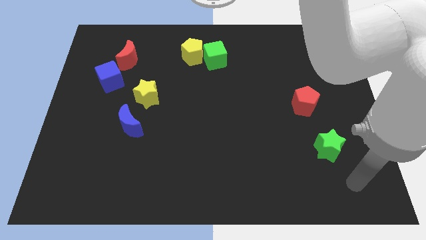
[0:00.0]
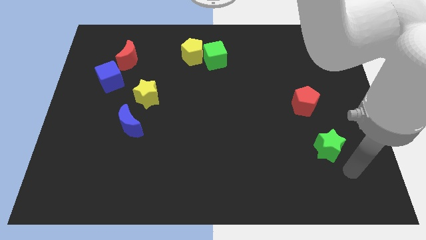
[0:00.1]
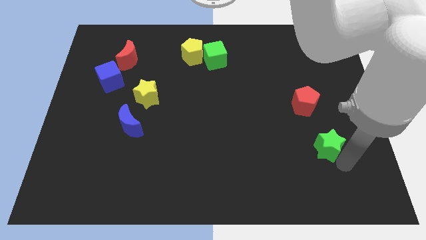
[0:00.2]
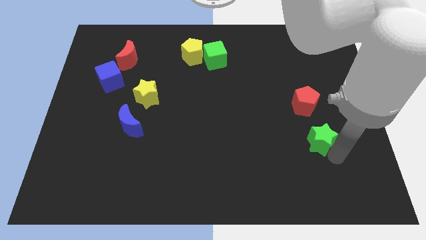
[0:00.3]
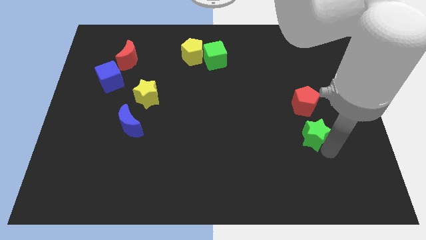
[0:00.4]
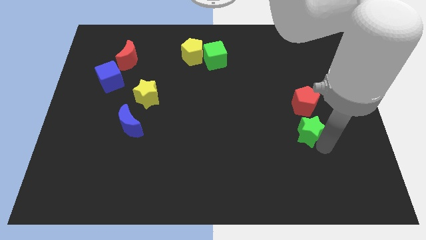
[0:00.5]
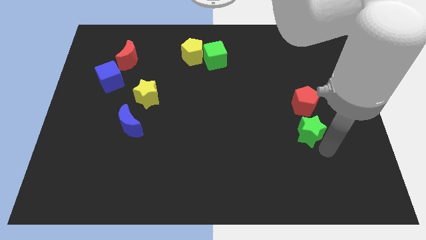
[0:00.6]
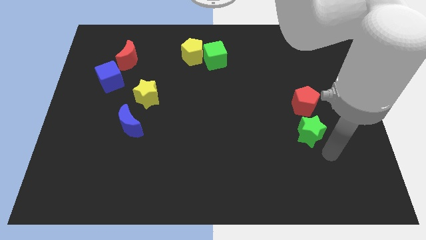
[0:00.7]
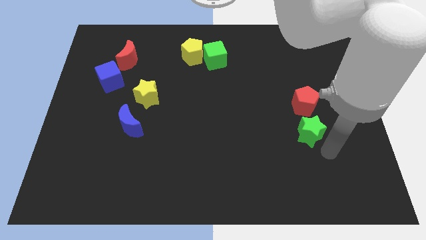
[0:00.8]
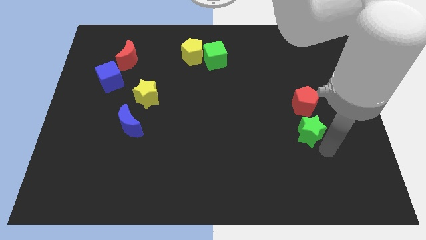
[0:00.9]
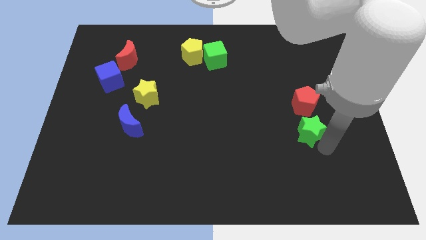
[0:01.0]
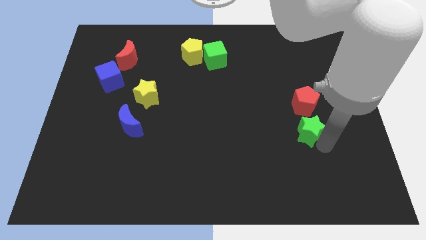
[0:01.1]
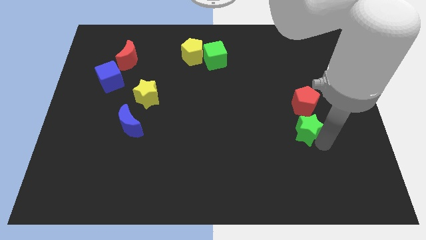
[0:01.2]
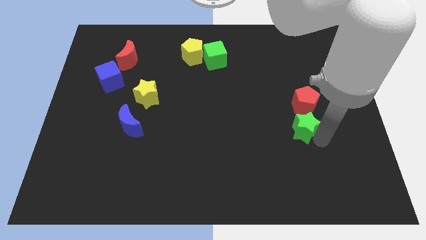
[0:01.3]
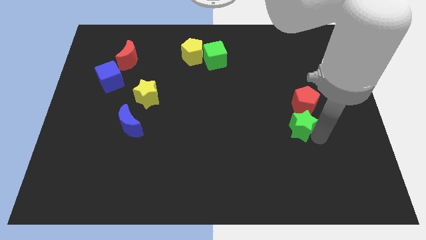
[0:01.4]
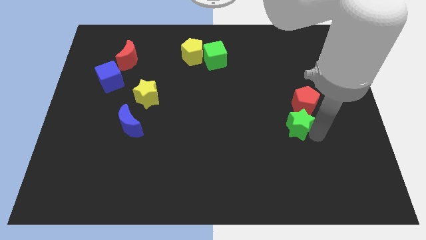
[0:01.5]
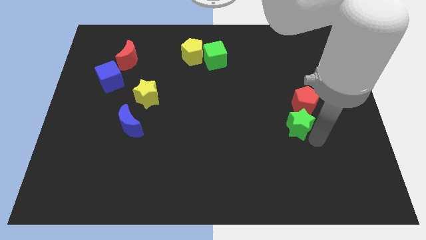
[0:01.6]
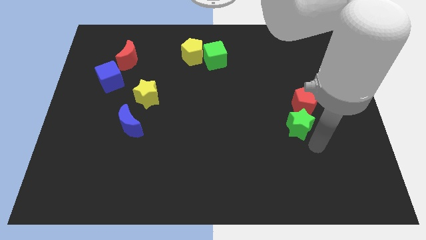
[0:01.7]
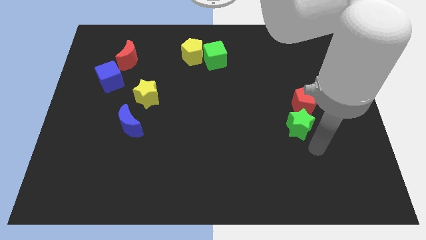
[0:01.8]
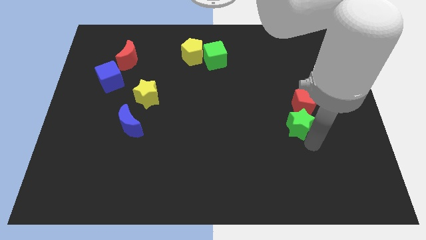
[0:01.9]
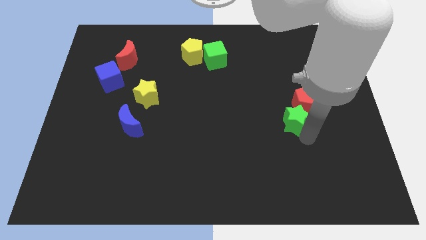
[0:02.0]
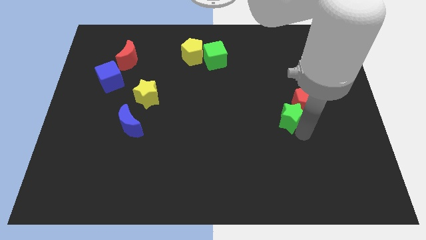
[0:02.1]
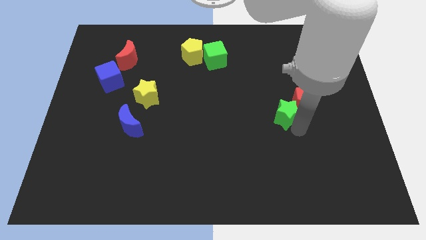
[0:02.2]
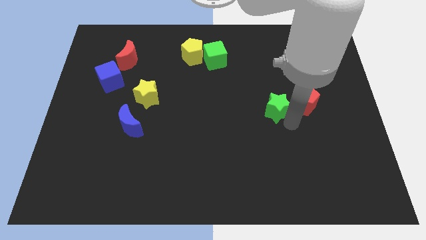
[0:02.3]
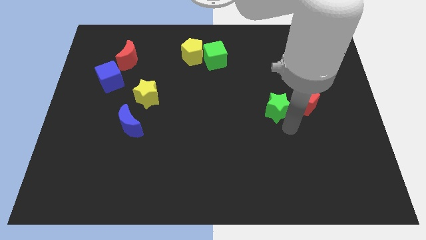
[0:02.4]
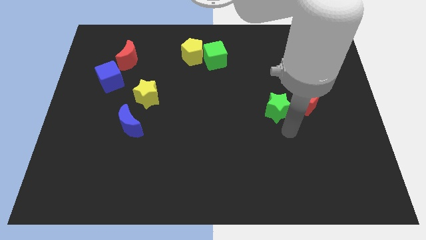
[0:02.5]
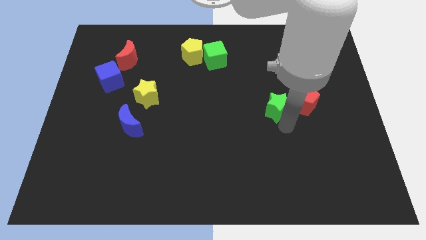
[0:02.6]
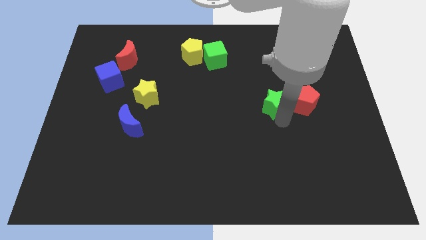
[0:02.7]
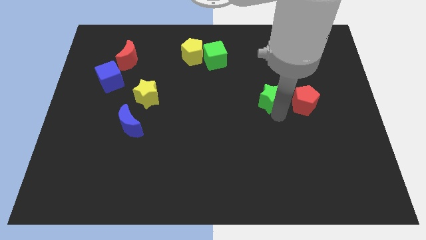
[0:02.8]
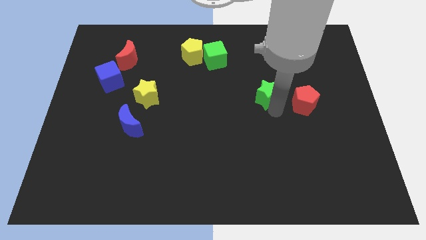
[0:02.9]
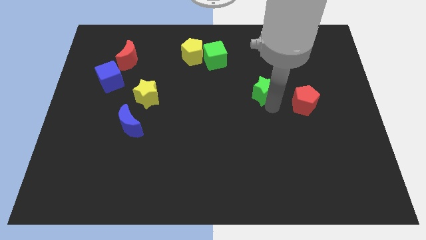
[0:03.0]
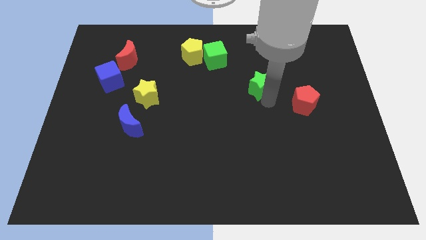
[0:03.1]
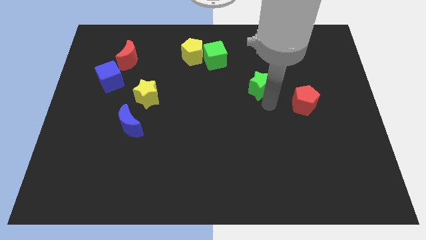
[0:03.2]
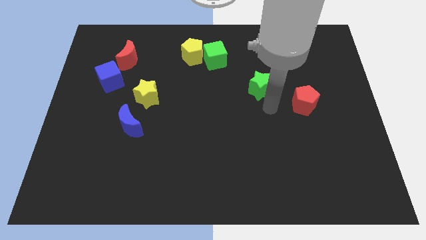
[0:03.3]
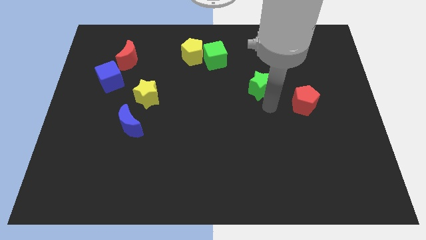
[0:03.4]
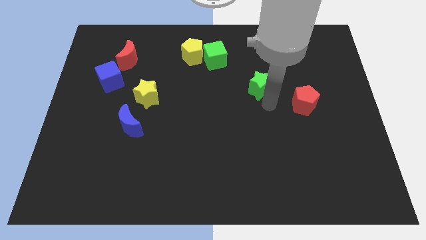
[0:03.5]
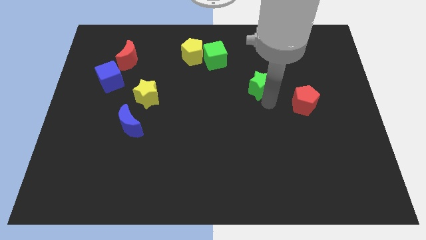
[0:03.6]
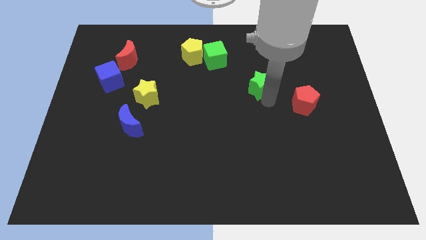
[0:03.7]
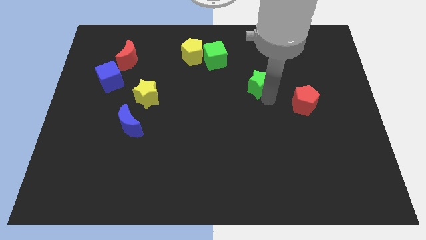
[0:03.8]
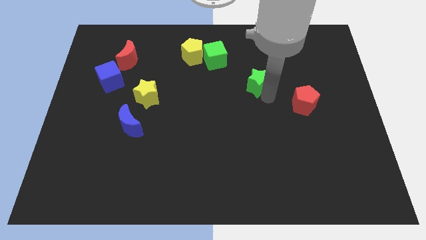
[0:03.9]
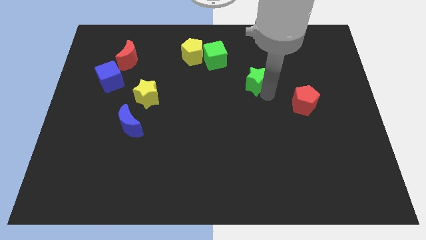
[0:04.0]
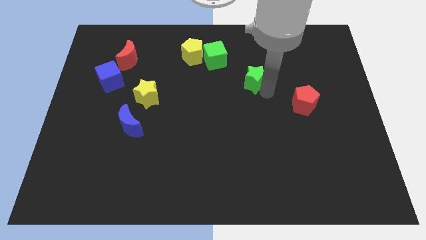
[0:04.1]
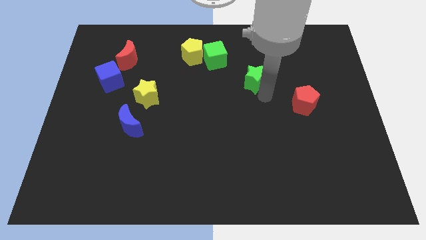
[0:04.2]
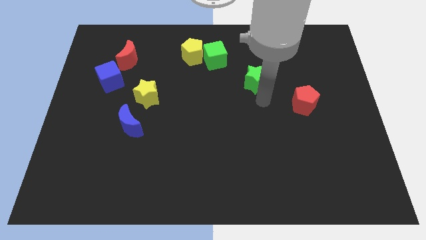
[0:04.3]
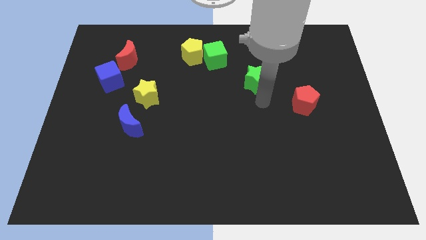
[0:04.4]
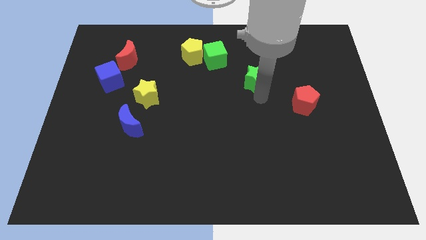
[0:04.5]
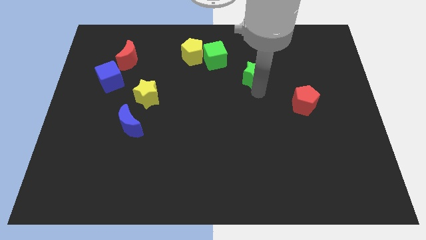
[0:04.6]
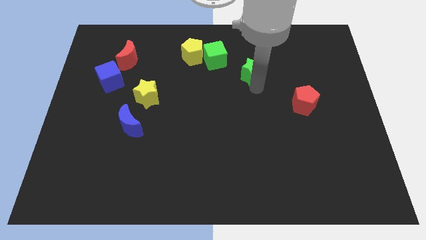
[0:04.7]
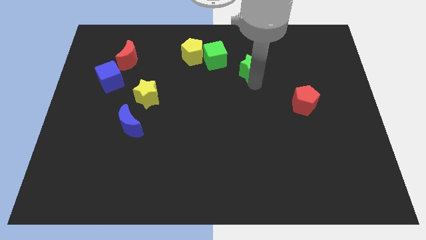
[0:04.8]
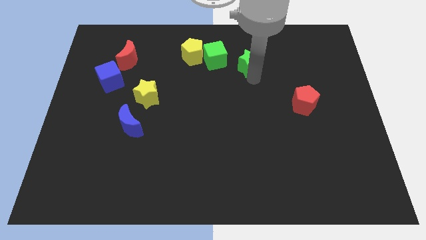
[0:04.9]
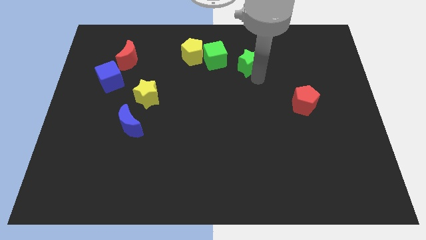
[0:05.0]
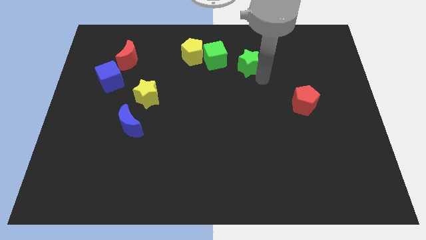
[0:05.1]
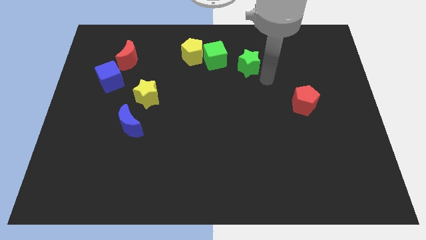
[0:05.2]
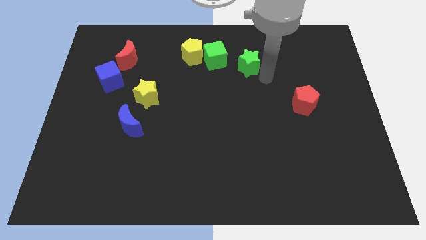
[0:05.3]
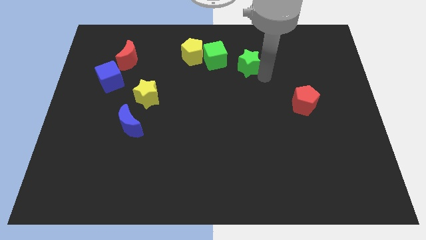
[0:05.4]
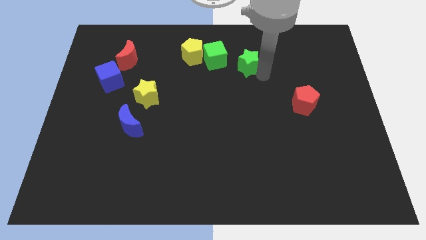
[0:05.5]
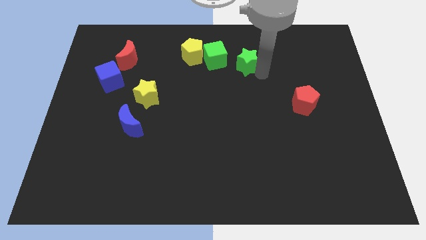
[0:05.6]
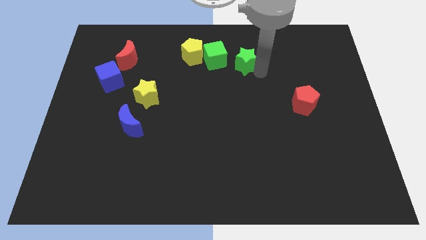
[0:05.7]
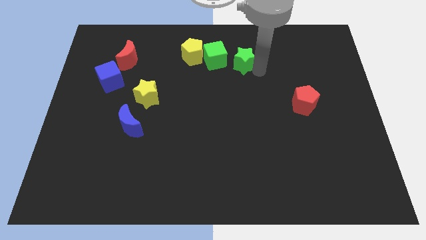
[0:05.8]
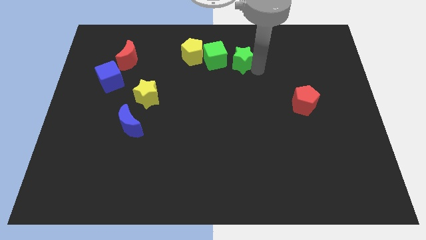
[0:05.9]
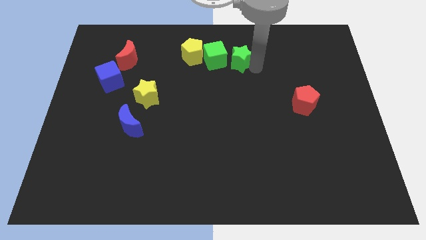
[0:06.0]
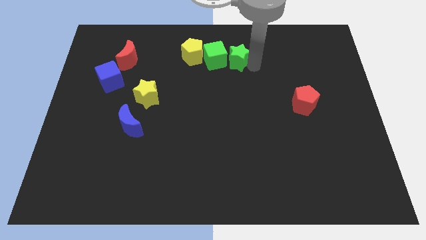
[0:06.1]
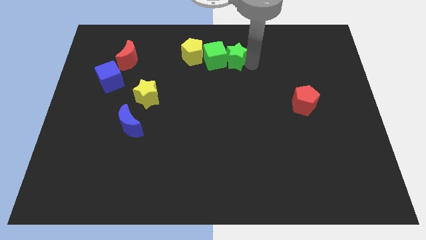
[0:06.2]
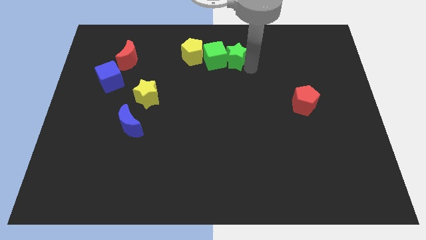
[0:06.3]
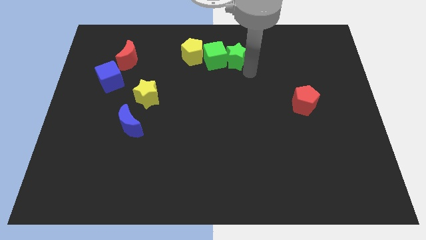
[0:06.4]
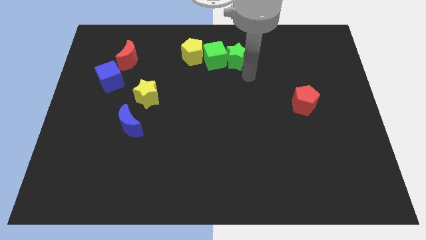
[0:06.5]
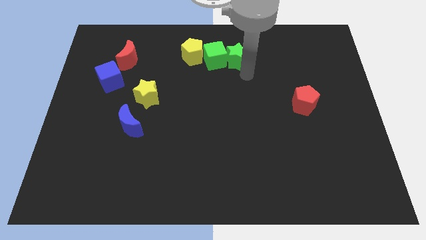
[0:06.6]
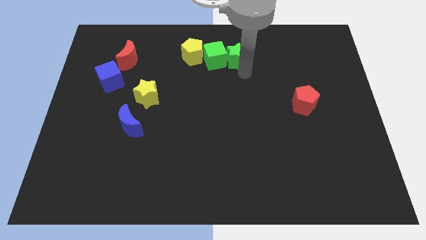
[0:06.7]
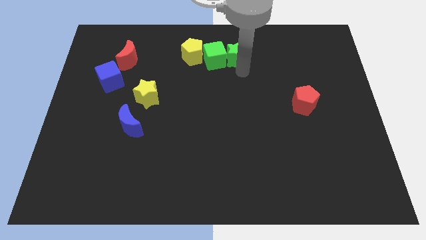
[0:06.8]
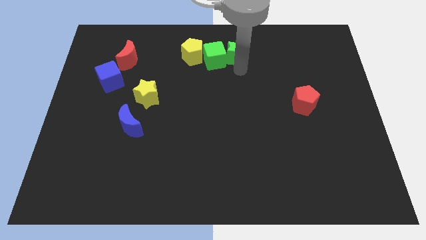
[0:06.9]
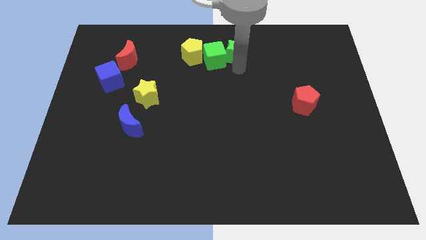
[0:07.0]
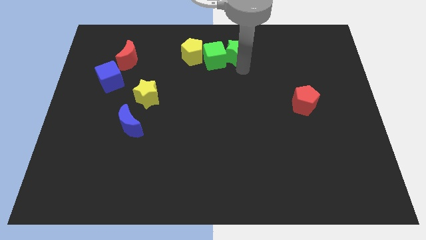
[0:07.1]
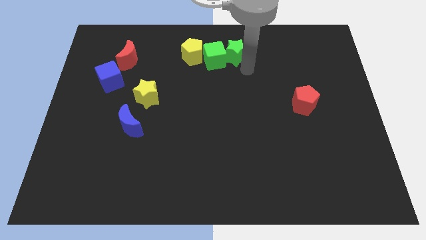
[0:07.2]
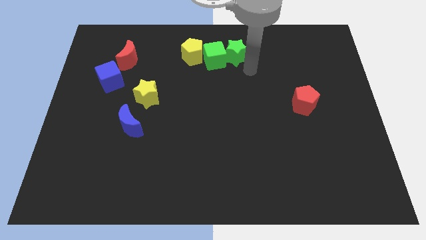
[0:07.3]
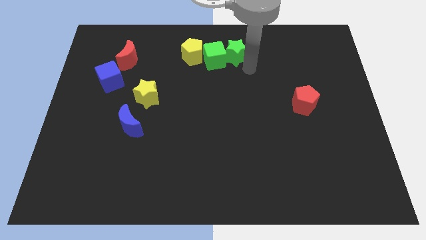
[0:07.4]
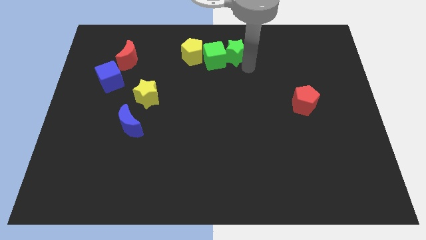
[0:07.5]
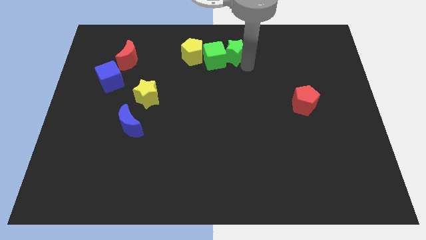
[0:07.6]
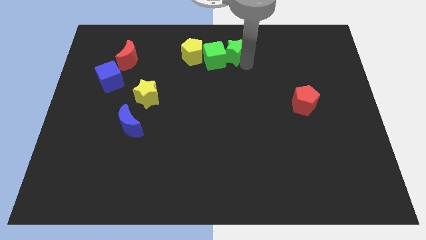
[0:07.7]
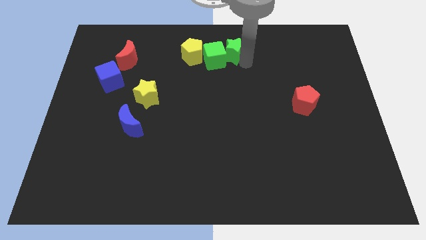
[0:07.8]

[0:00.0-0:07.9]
push the green star to the top
